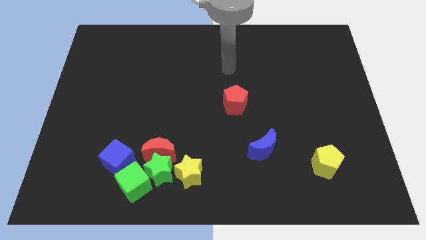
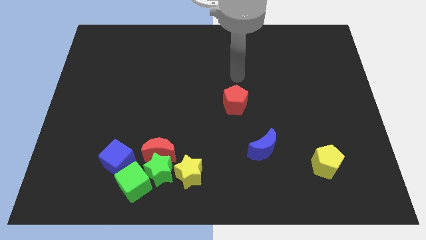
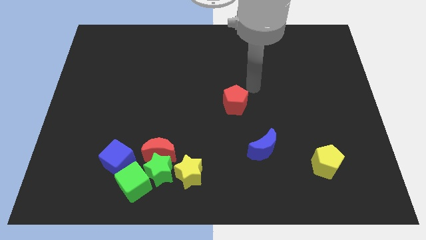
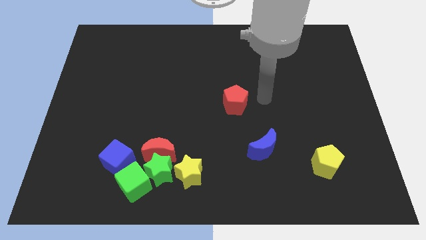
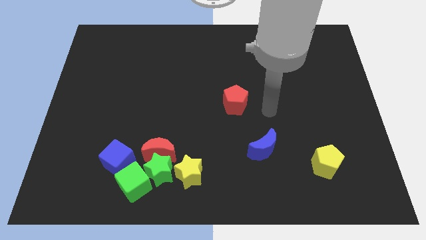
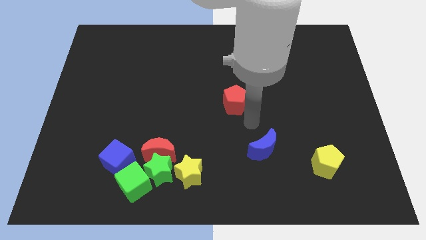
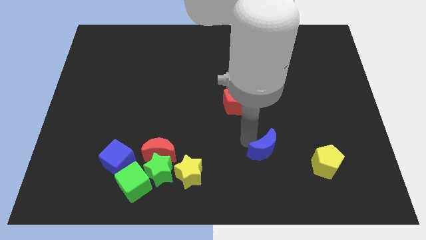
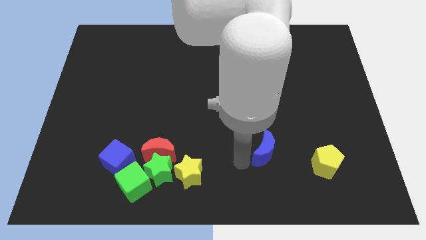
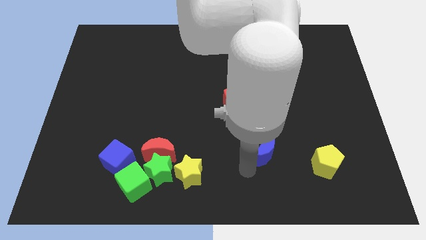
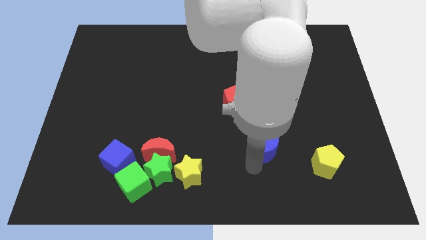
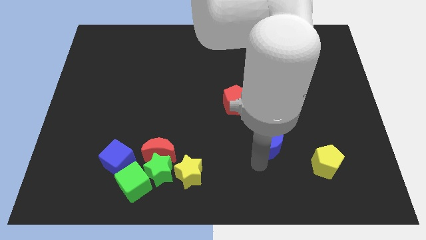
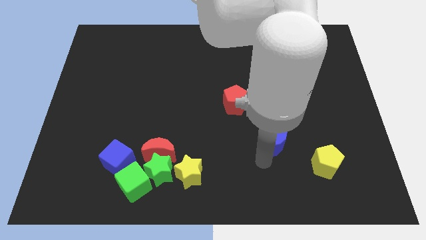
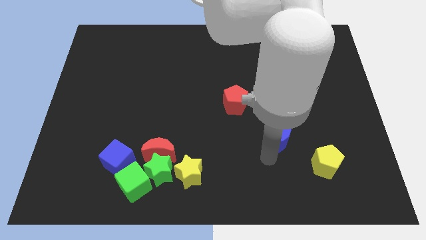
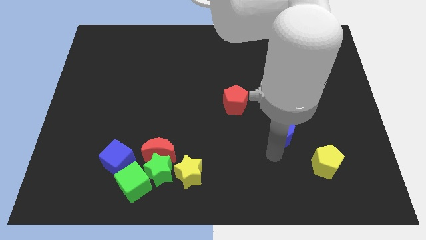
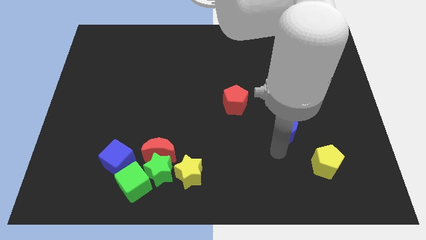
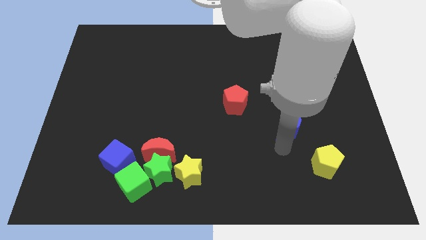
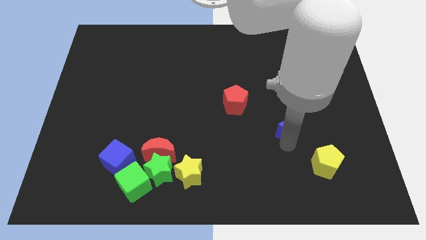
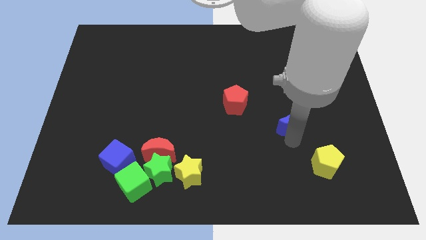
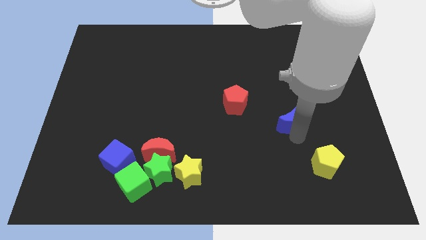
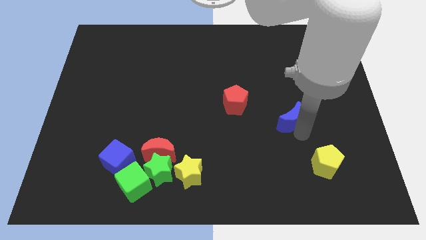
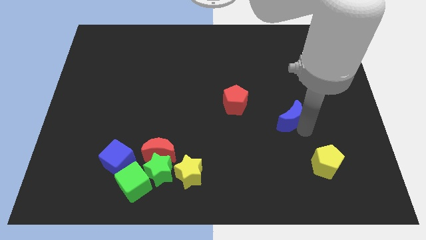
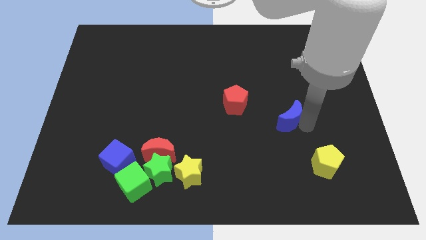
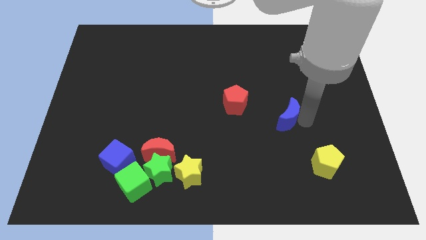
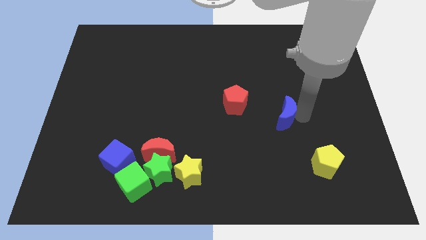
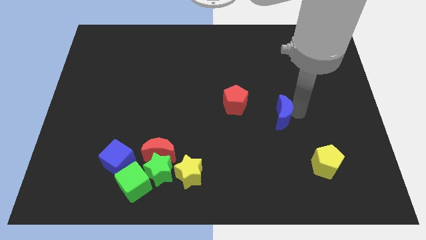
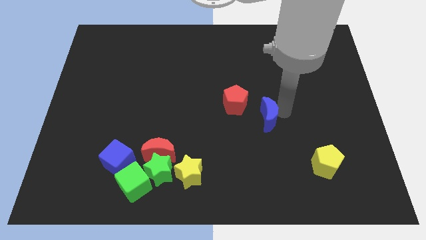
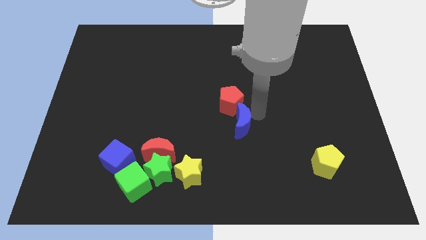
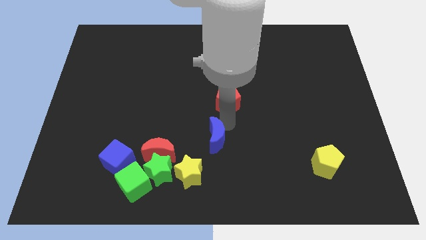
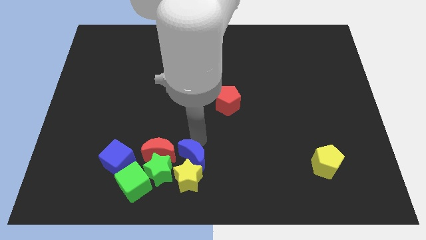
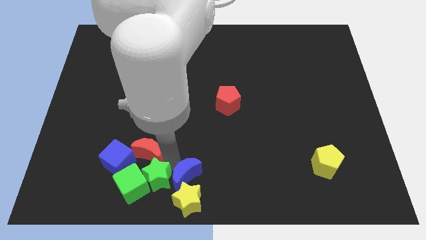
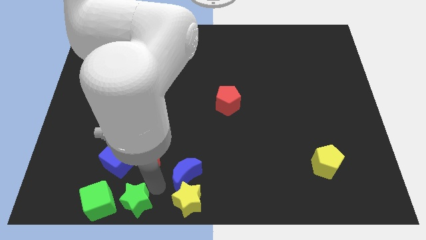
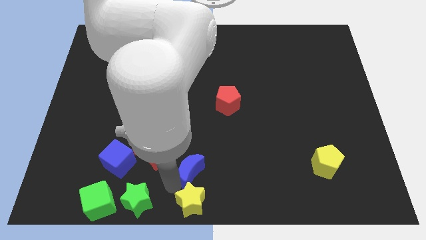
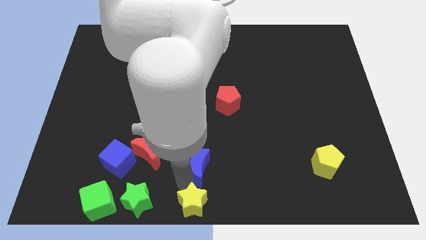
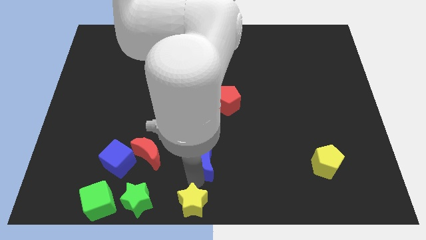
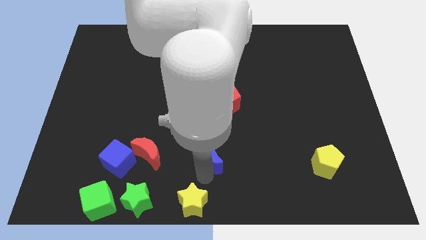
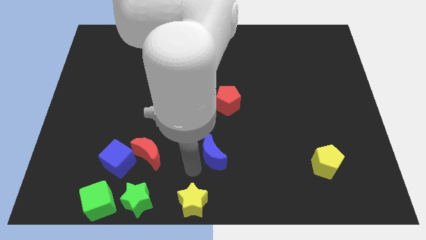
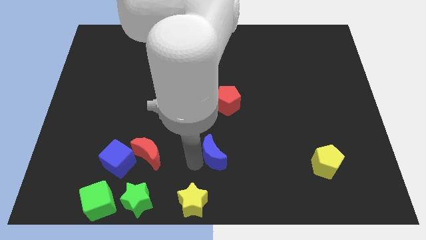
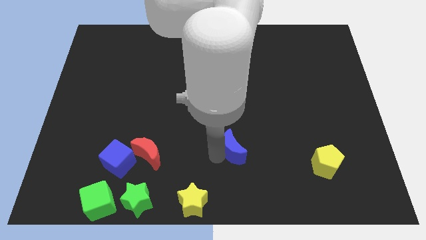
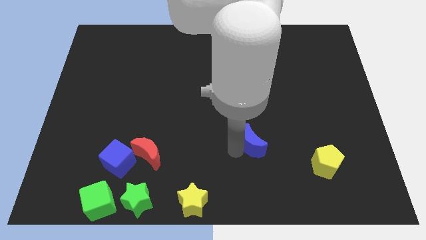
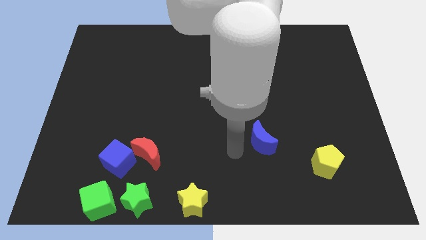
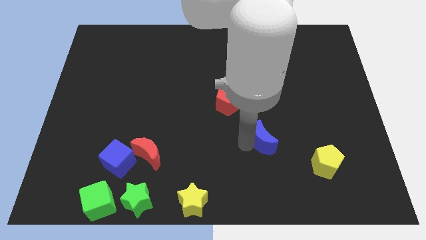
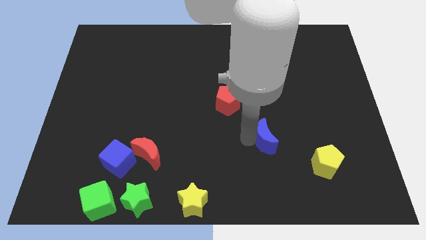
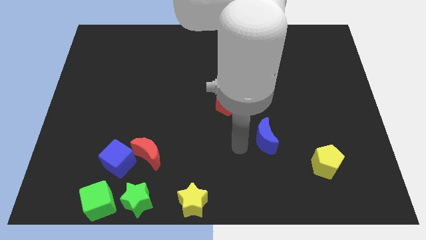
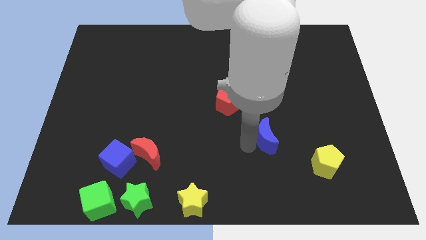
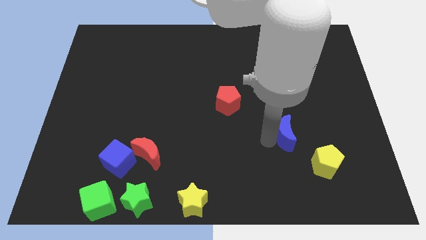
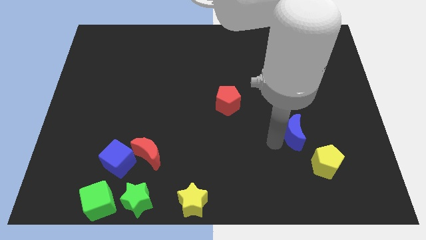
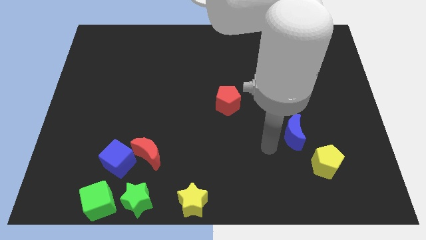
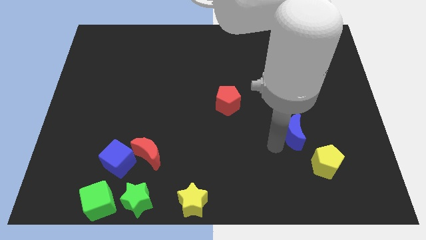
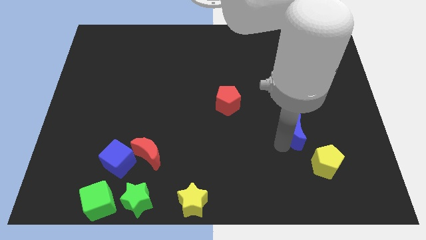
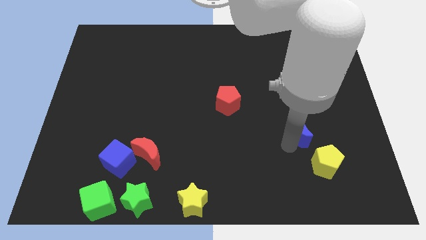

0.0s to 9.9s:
put the blue moon to the top of the yellow pentagon

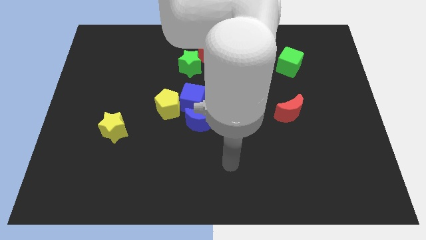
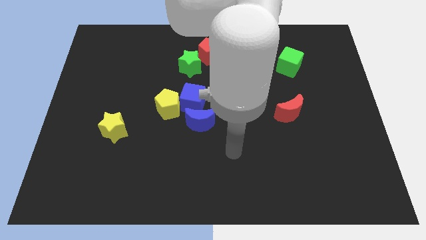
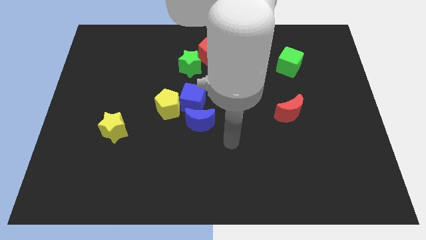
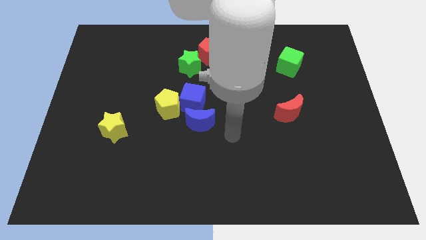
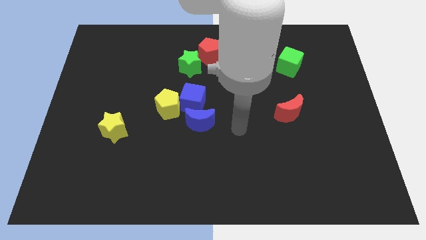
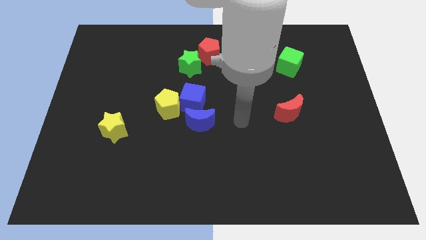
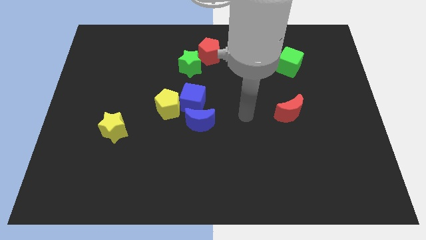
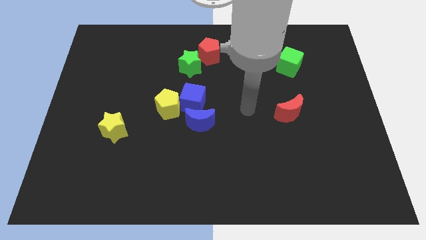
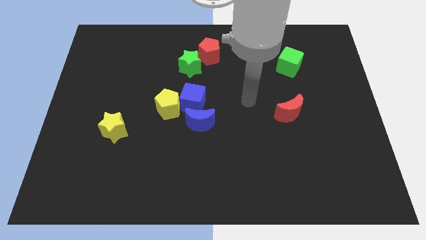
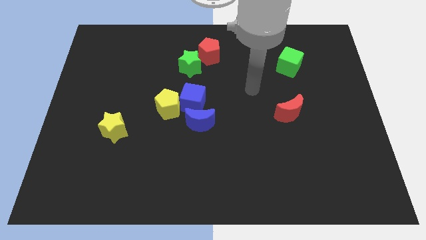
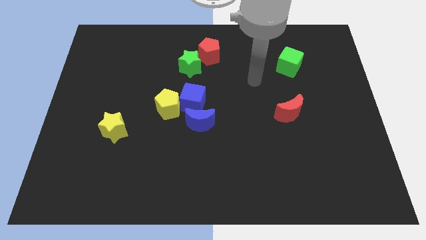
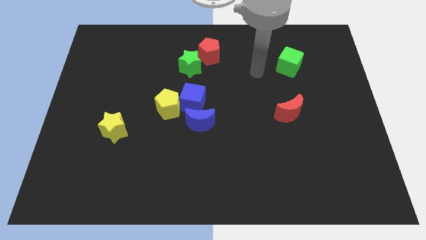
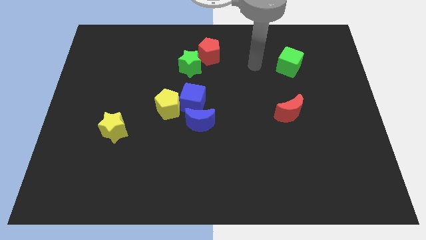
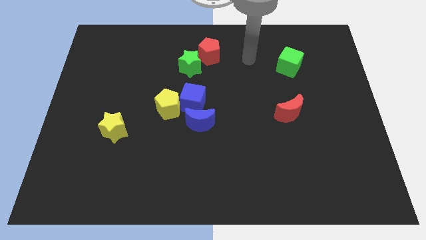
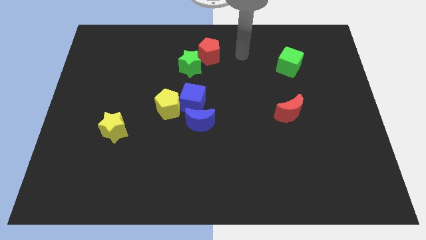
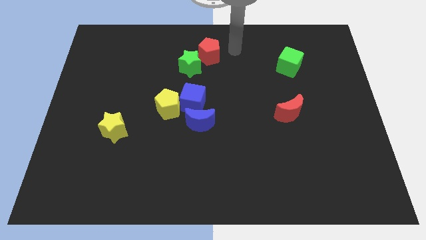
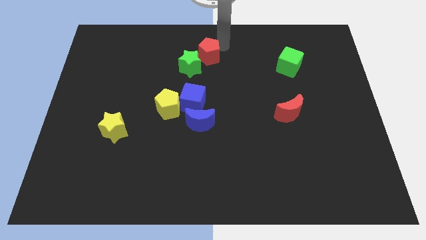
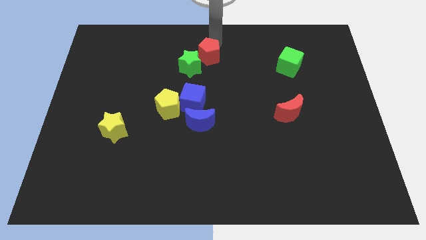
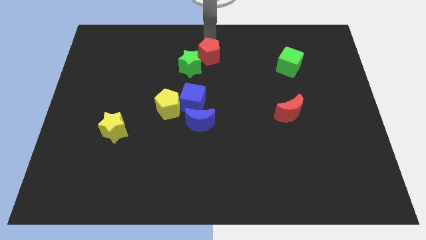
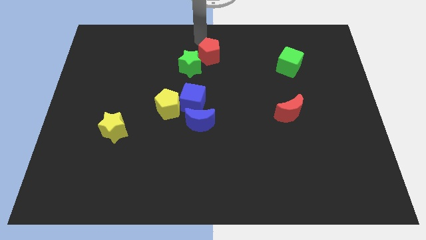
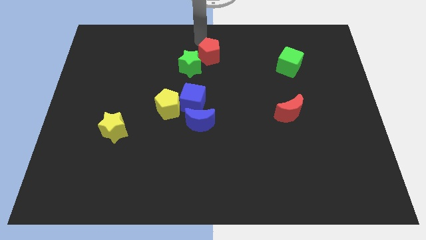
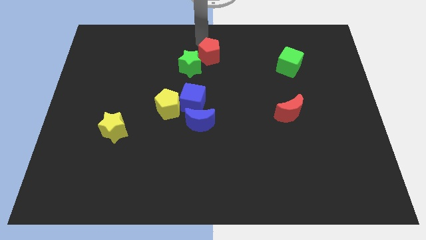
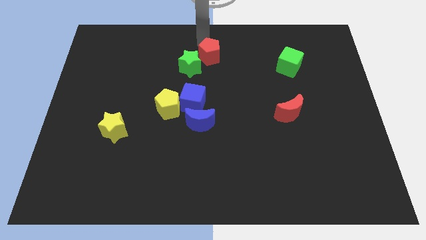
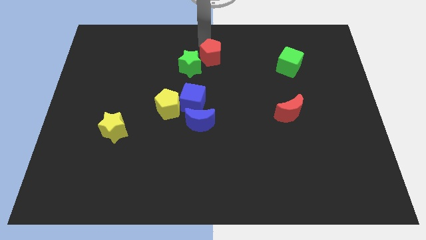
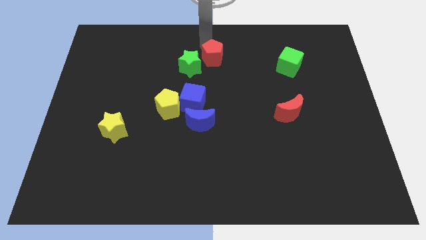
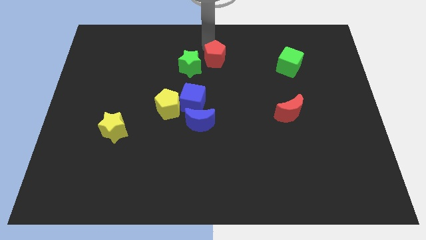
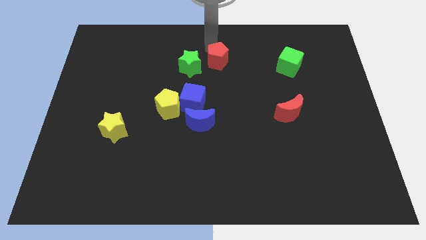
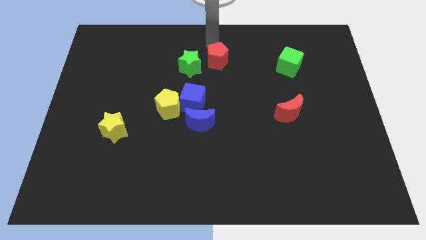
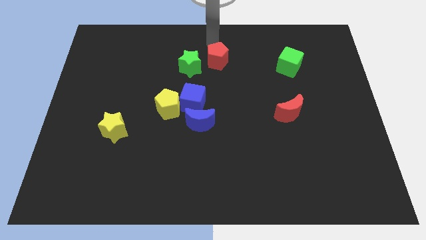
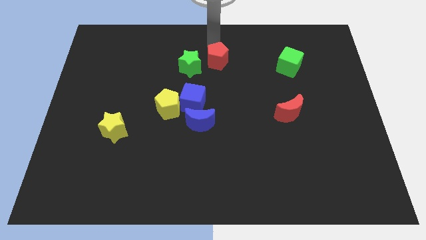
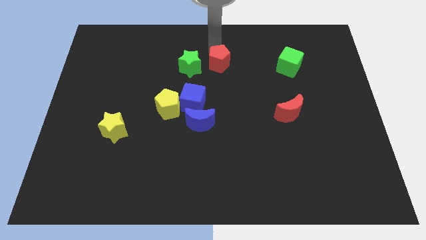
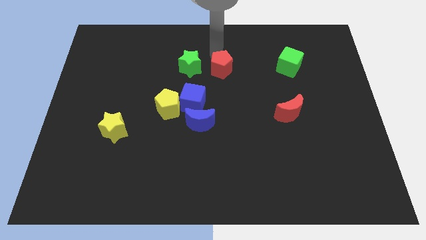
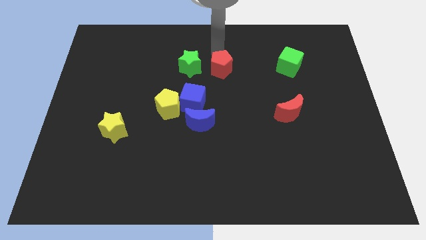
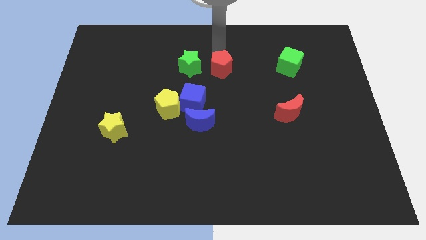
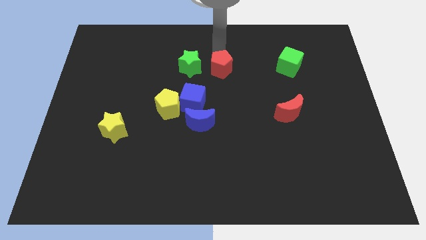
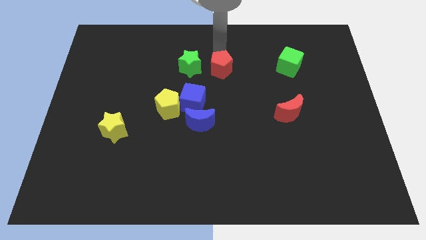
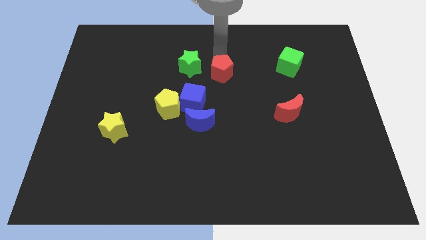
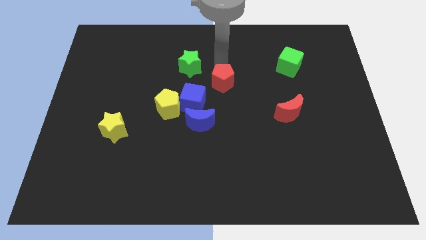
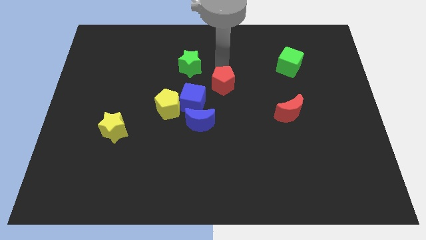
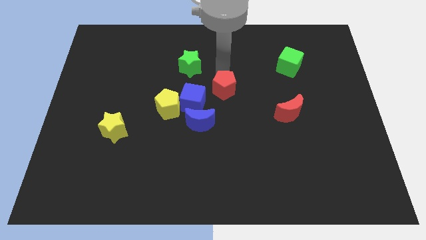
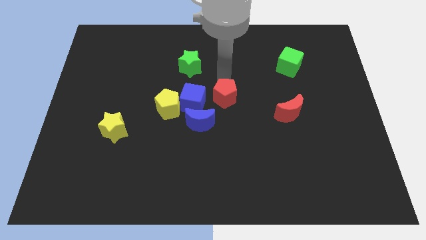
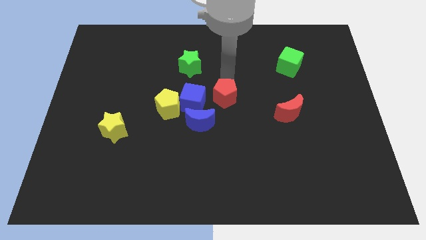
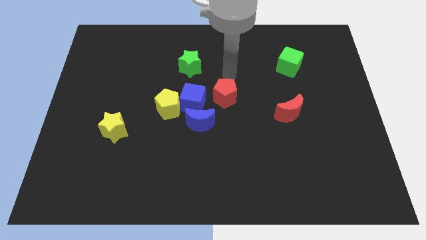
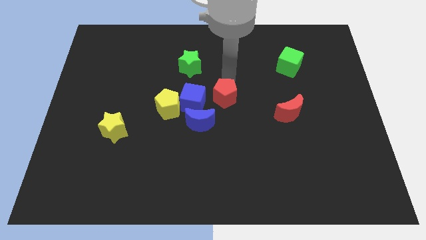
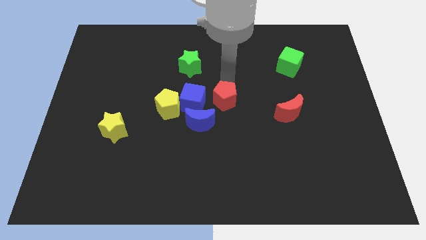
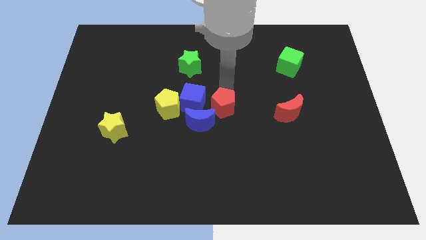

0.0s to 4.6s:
slide the red pentagon diagonally down and to the right of the blue cube
